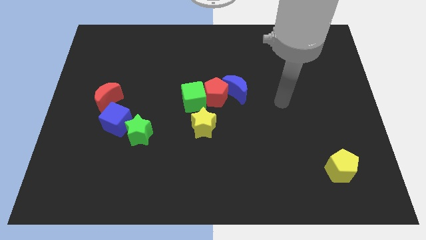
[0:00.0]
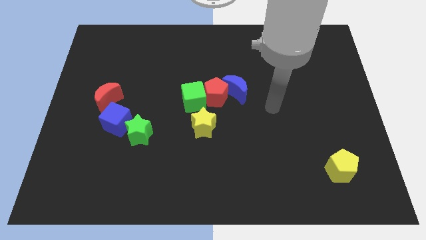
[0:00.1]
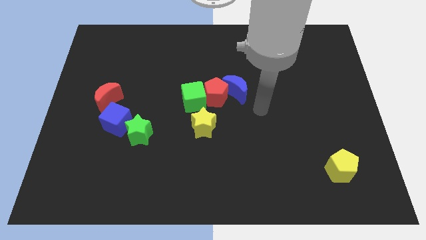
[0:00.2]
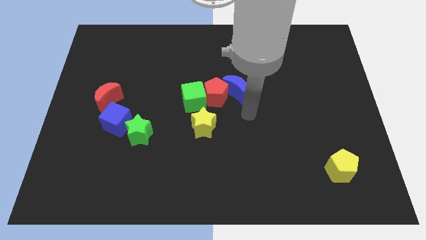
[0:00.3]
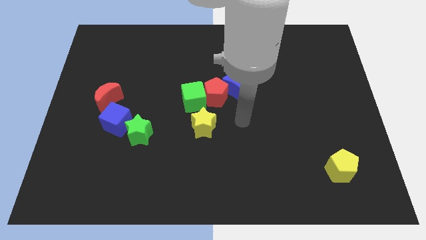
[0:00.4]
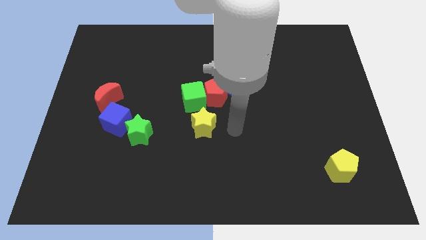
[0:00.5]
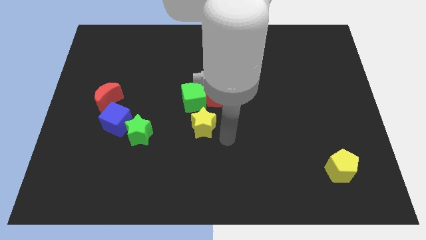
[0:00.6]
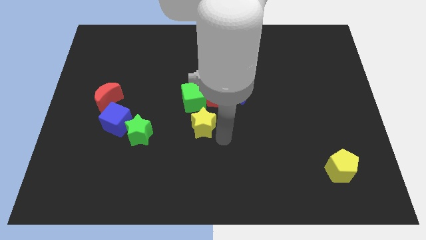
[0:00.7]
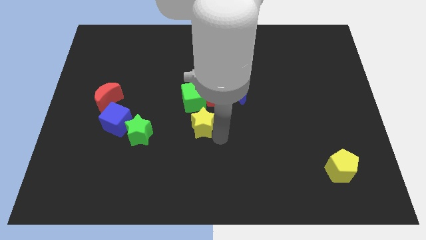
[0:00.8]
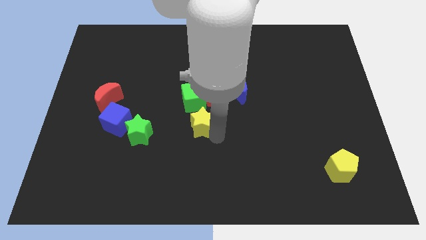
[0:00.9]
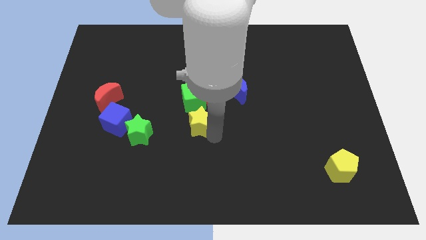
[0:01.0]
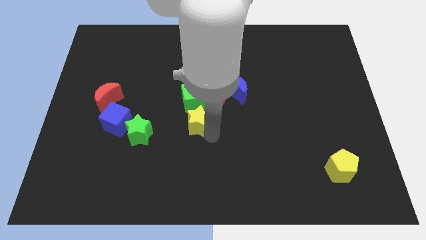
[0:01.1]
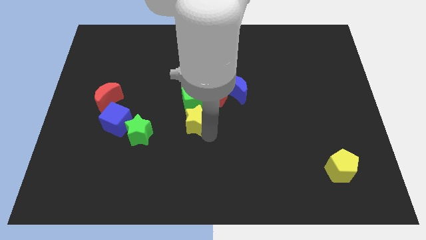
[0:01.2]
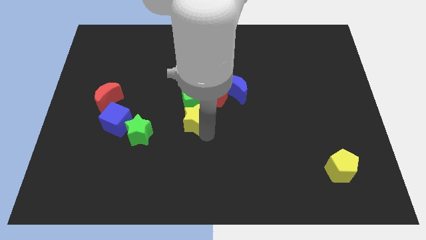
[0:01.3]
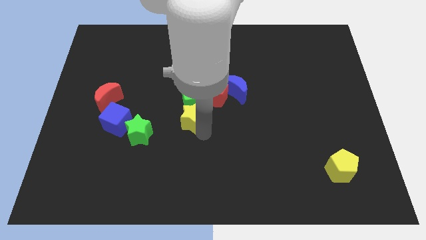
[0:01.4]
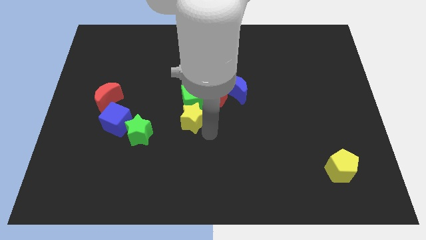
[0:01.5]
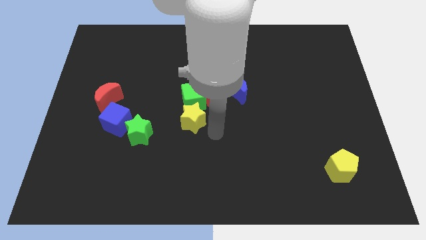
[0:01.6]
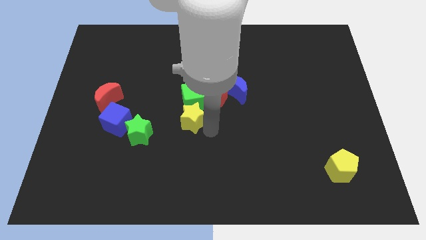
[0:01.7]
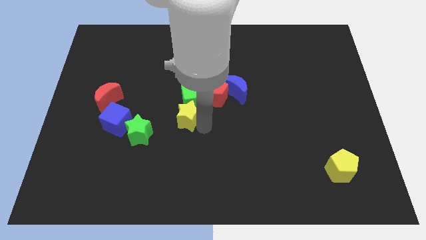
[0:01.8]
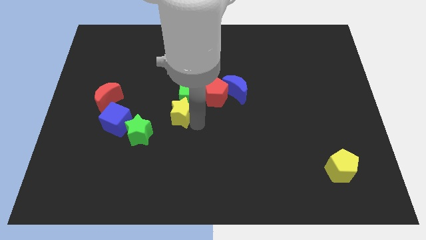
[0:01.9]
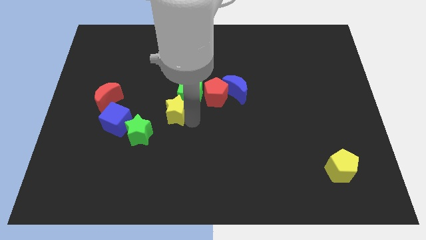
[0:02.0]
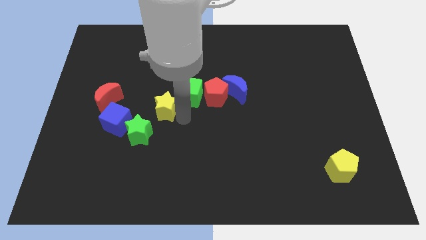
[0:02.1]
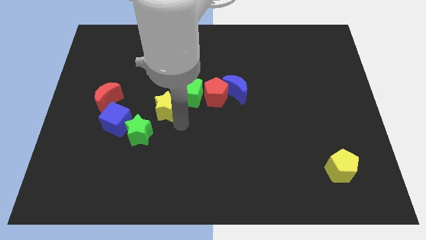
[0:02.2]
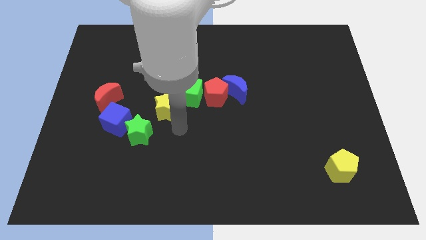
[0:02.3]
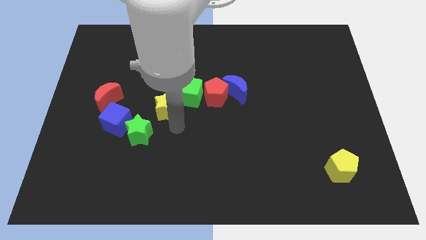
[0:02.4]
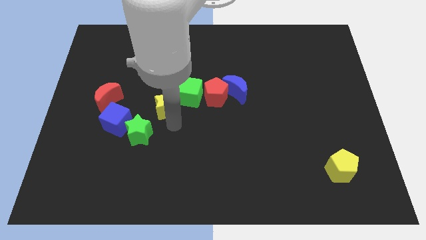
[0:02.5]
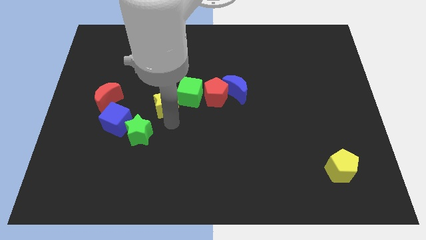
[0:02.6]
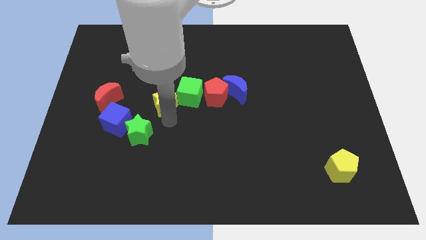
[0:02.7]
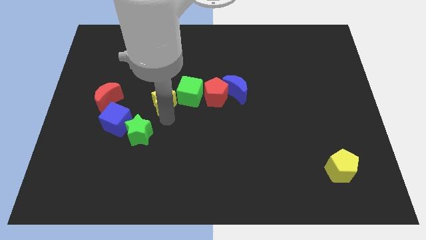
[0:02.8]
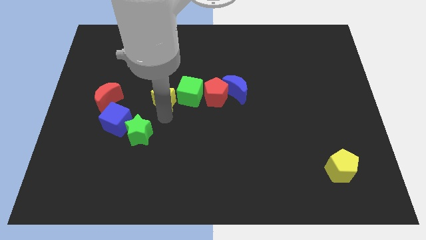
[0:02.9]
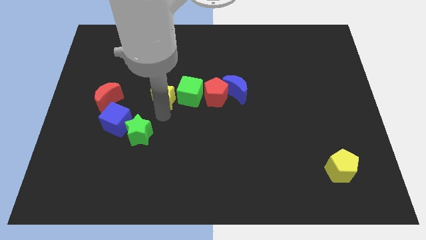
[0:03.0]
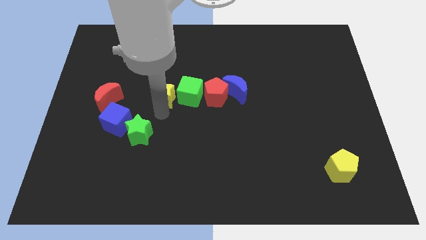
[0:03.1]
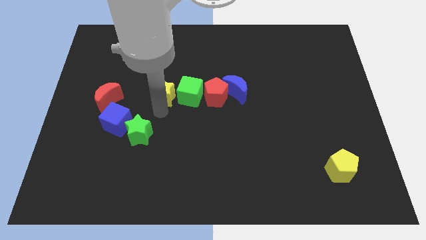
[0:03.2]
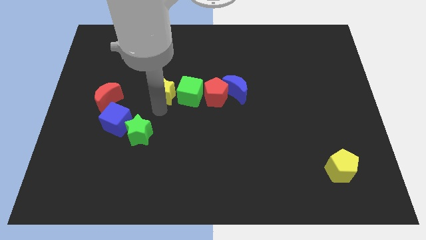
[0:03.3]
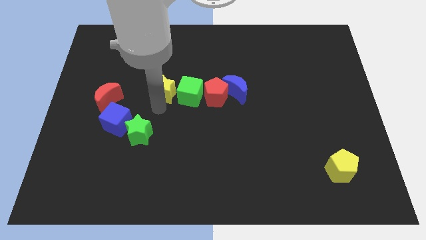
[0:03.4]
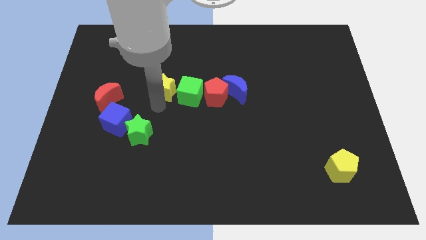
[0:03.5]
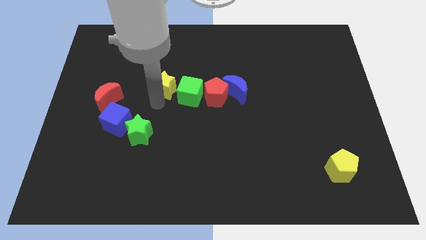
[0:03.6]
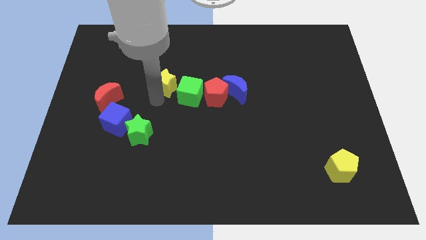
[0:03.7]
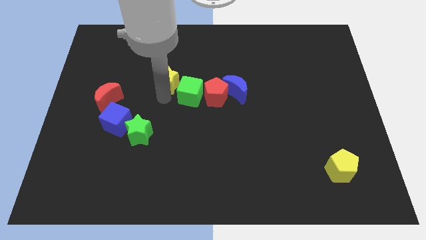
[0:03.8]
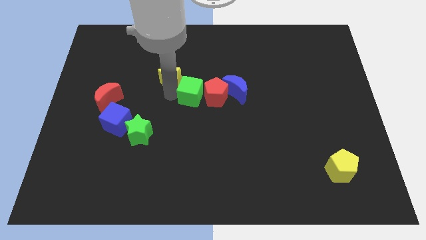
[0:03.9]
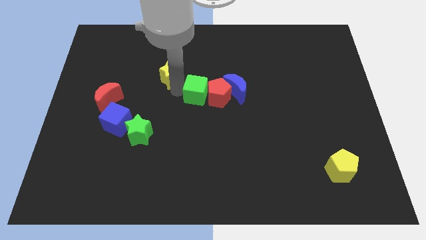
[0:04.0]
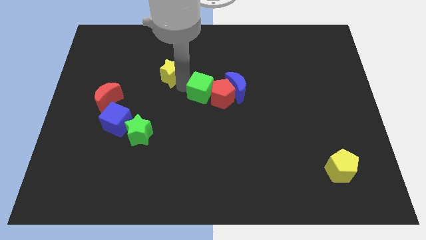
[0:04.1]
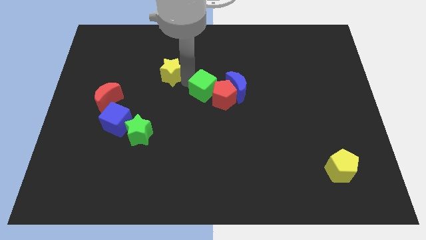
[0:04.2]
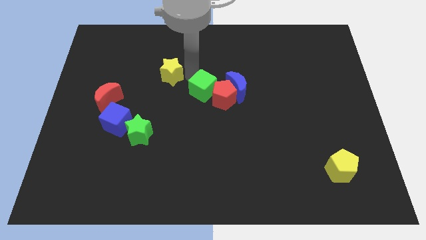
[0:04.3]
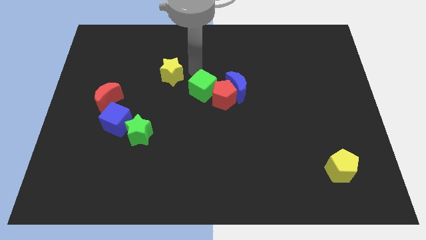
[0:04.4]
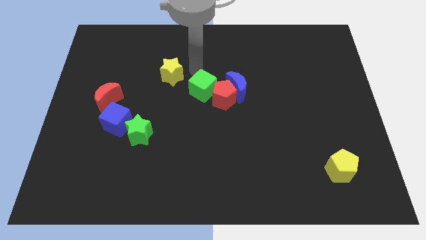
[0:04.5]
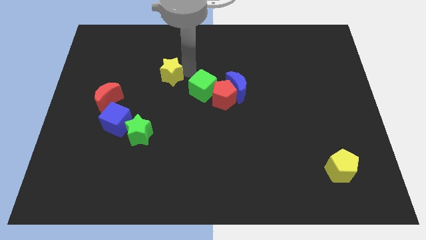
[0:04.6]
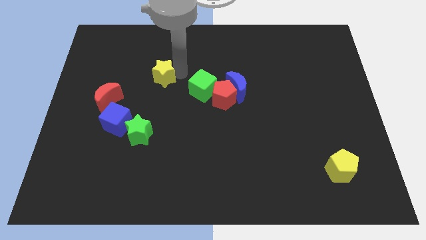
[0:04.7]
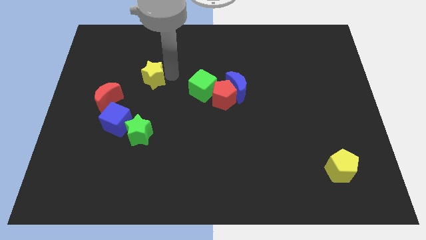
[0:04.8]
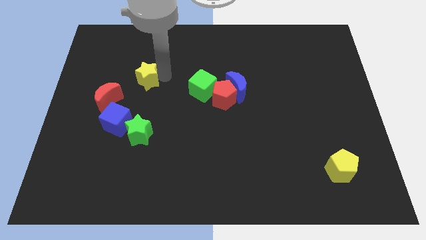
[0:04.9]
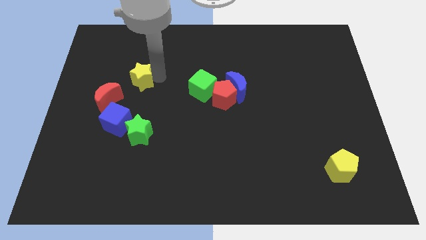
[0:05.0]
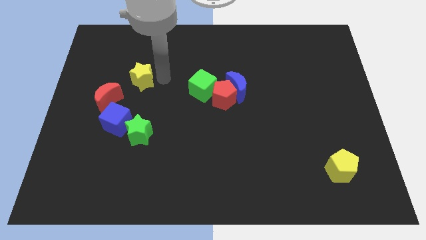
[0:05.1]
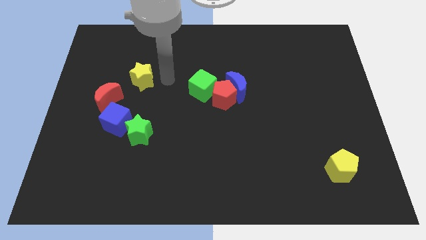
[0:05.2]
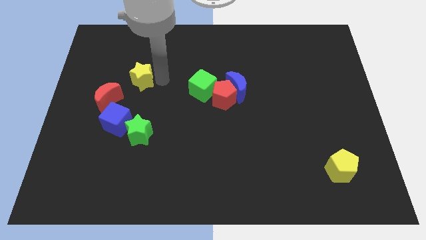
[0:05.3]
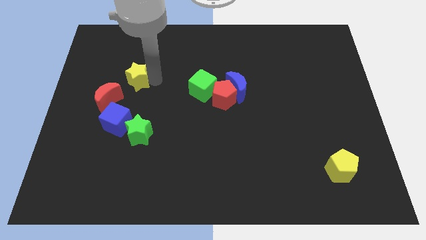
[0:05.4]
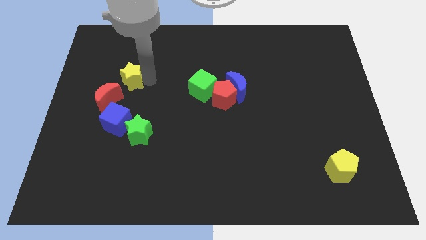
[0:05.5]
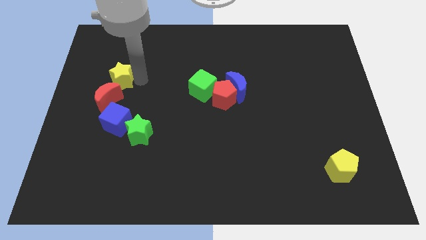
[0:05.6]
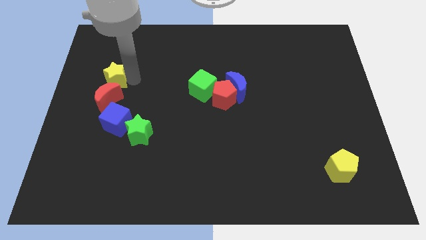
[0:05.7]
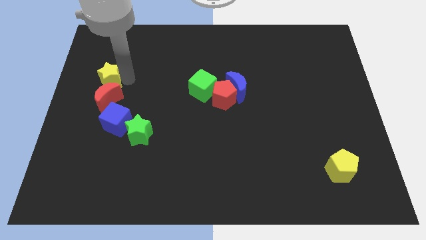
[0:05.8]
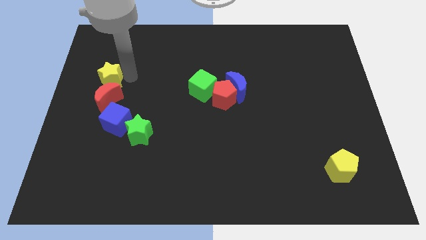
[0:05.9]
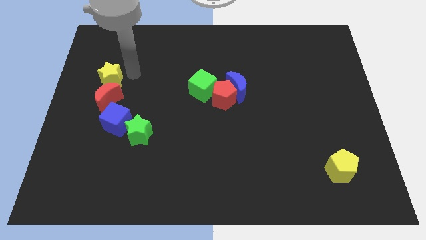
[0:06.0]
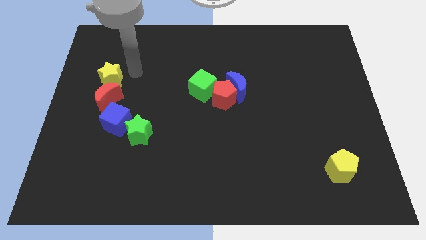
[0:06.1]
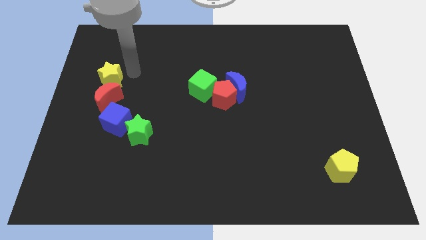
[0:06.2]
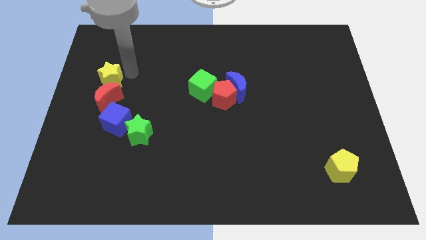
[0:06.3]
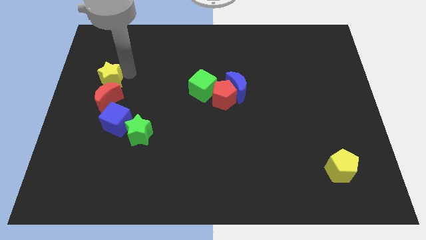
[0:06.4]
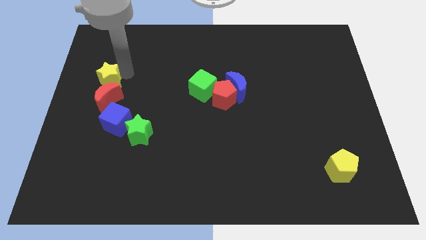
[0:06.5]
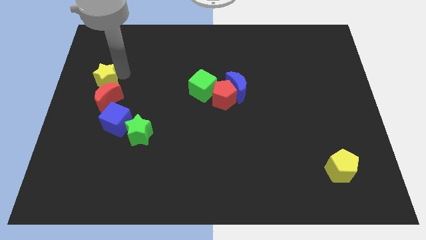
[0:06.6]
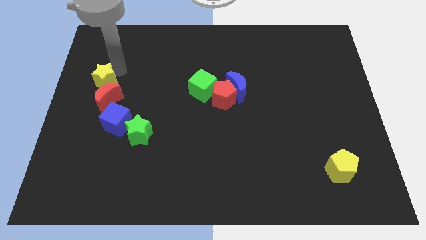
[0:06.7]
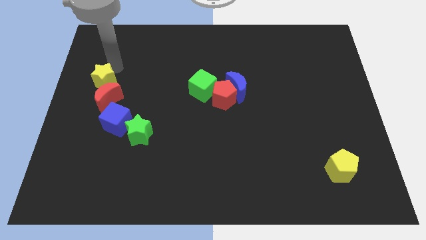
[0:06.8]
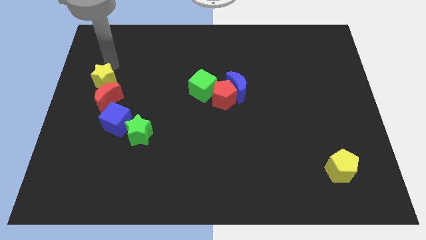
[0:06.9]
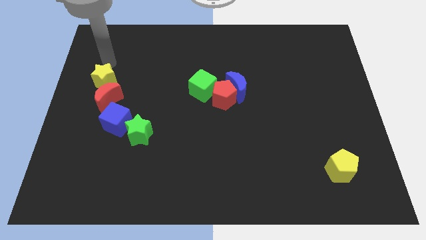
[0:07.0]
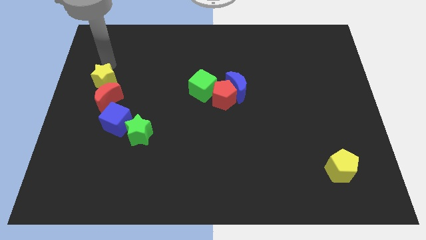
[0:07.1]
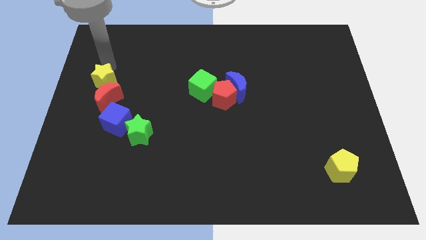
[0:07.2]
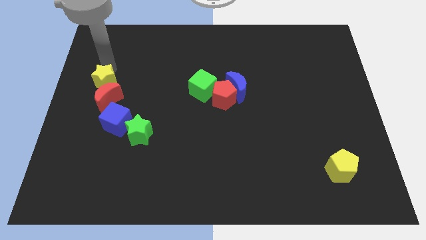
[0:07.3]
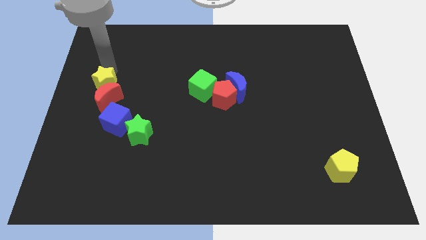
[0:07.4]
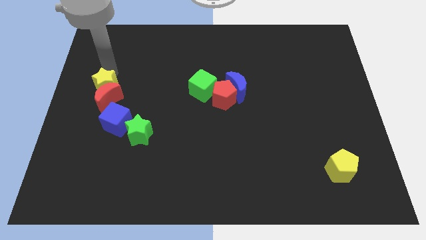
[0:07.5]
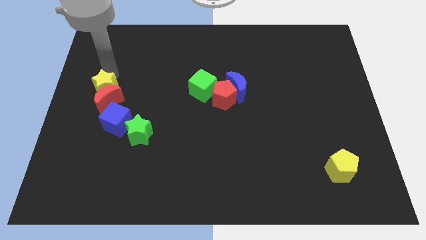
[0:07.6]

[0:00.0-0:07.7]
move the yellow star to the top left of the blue cube
